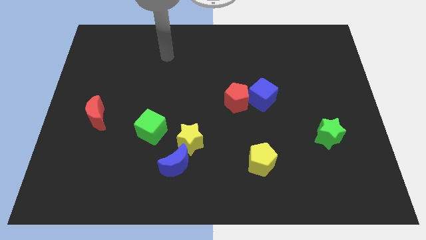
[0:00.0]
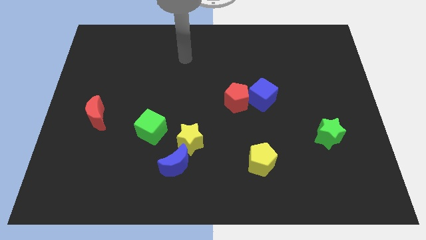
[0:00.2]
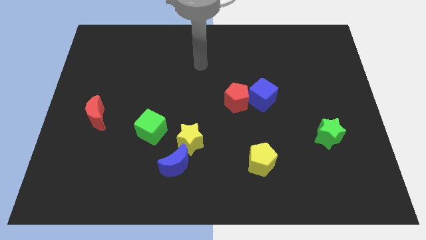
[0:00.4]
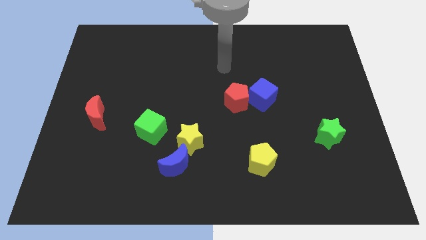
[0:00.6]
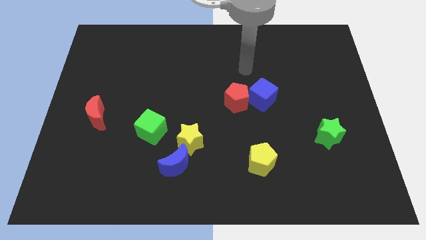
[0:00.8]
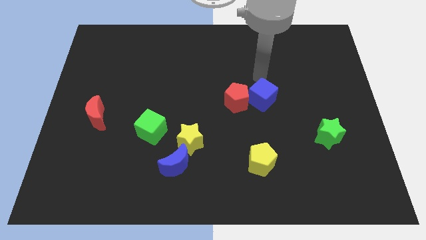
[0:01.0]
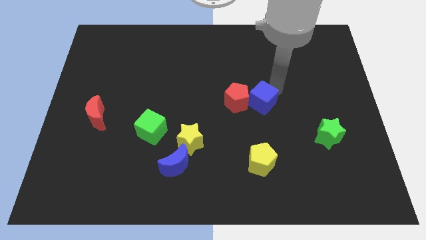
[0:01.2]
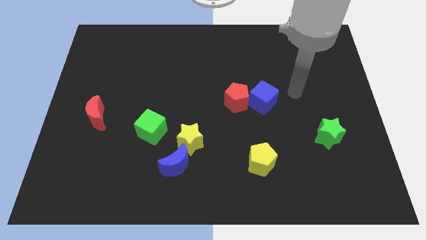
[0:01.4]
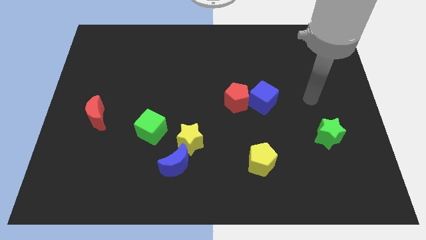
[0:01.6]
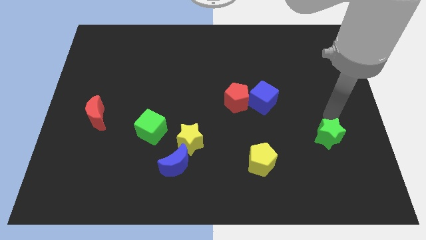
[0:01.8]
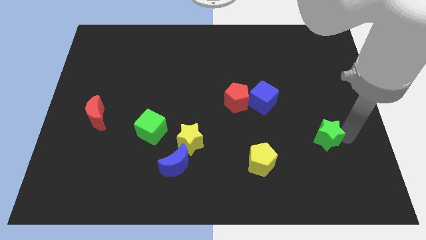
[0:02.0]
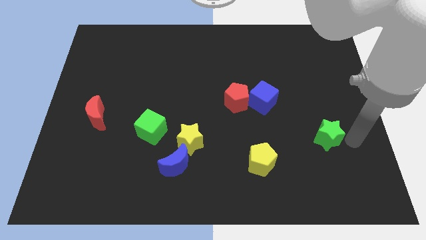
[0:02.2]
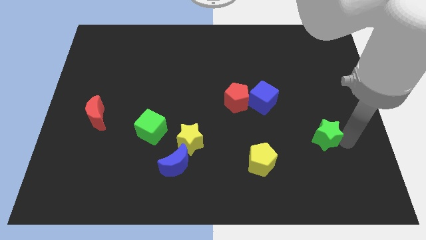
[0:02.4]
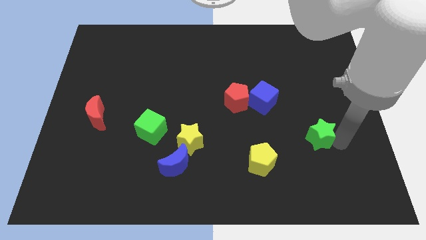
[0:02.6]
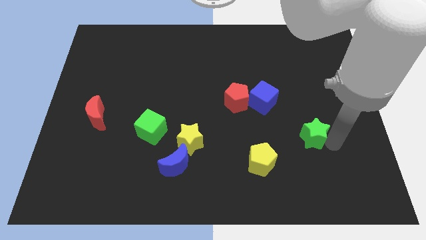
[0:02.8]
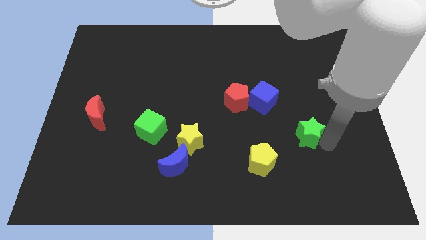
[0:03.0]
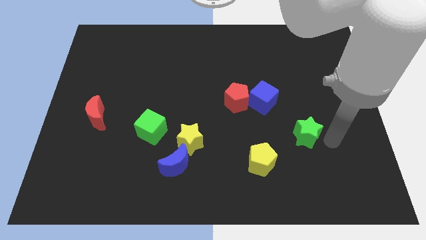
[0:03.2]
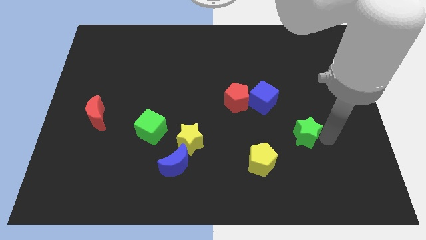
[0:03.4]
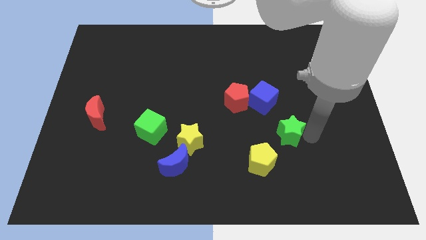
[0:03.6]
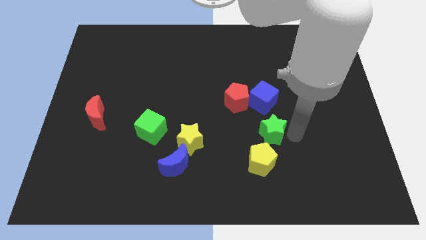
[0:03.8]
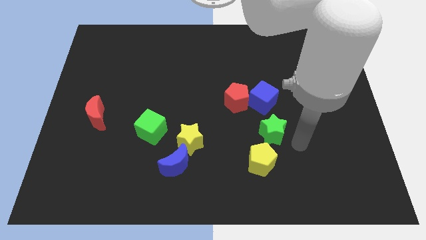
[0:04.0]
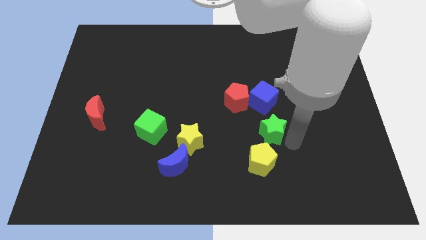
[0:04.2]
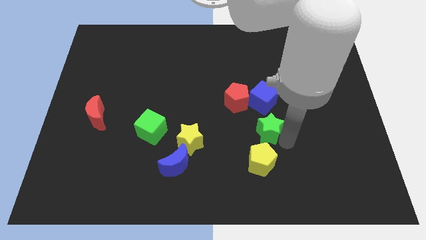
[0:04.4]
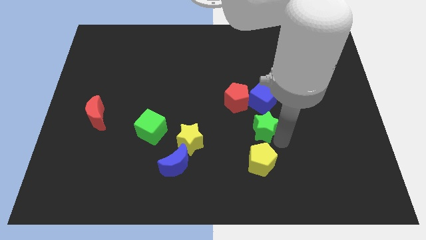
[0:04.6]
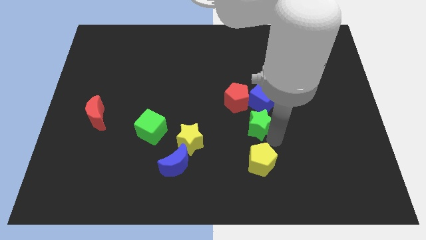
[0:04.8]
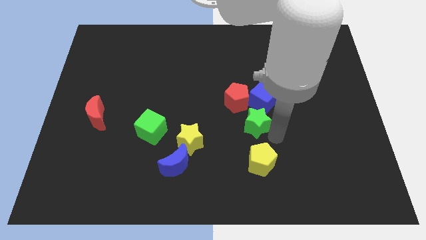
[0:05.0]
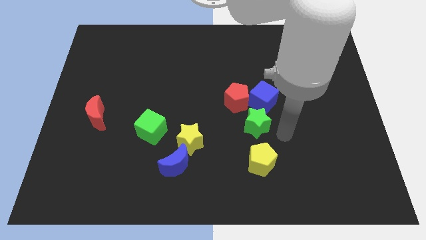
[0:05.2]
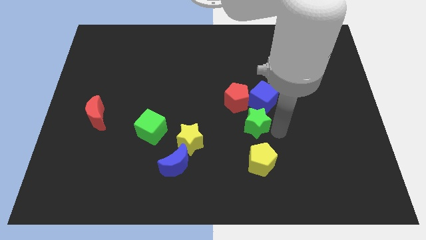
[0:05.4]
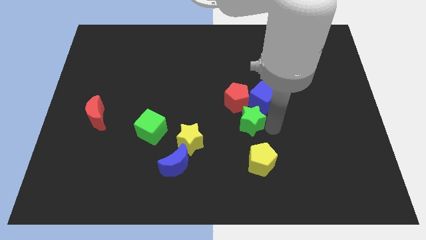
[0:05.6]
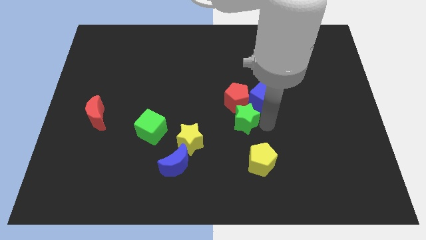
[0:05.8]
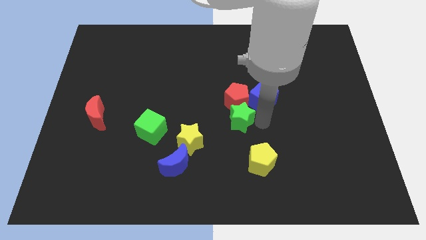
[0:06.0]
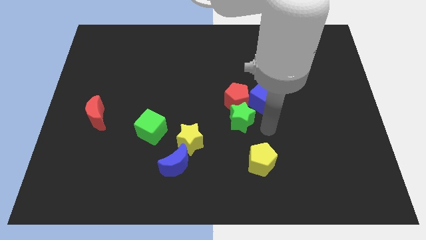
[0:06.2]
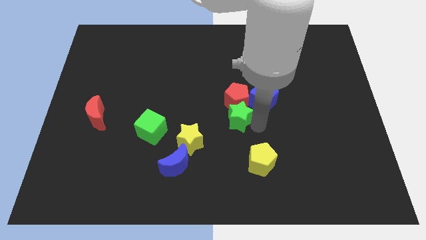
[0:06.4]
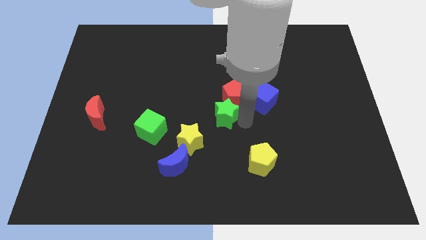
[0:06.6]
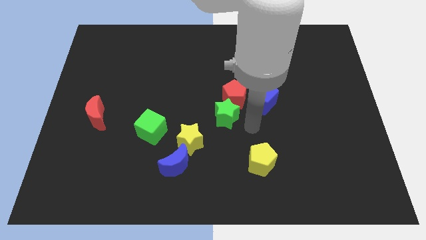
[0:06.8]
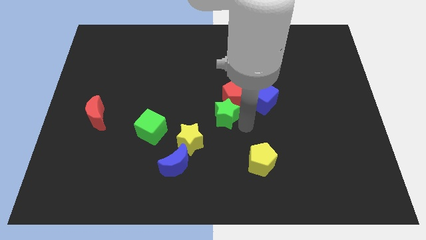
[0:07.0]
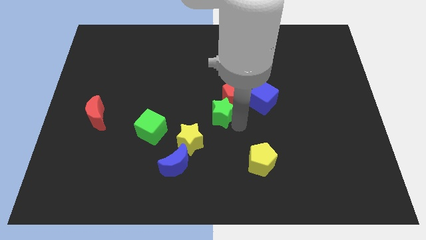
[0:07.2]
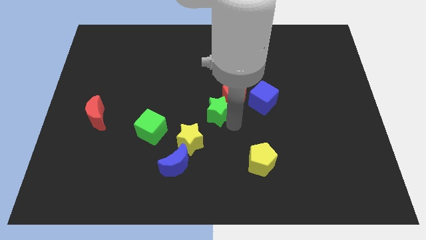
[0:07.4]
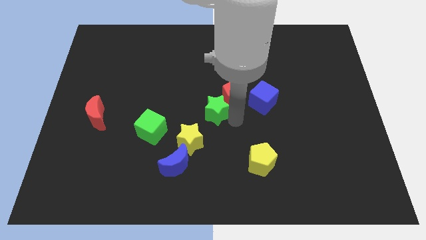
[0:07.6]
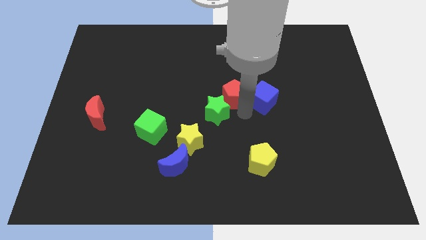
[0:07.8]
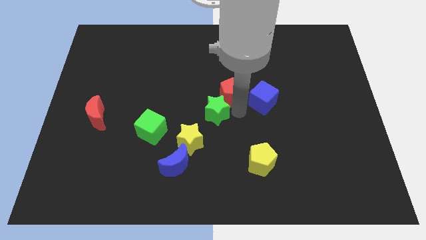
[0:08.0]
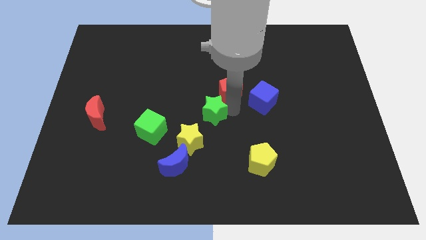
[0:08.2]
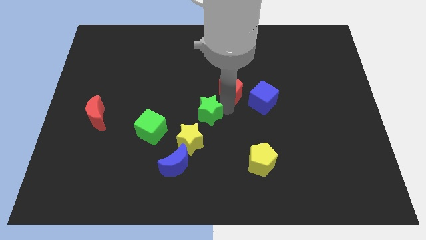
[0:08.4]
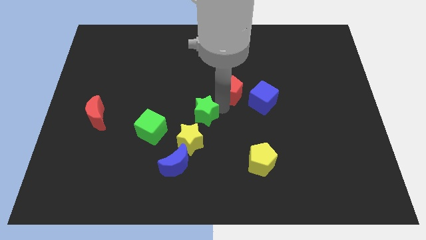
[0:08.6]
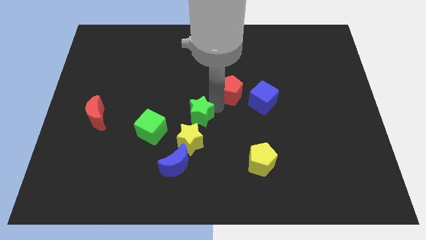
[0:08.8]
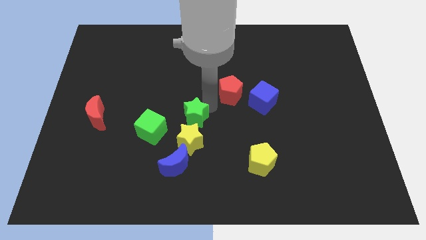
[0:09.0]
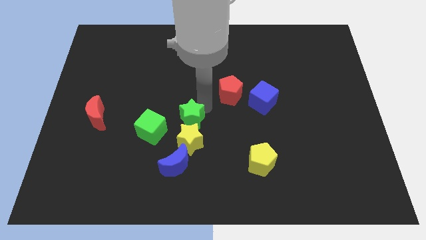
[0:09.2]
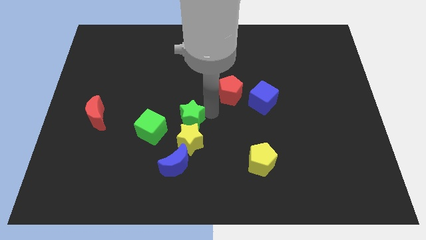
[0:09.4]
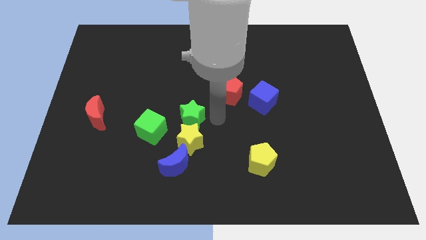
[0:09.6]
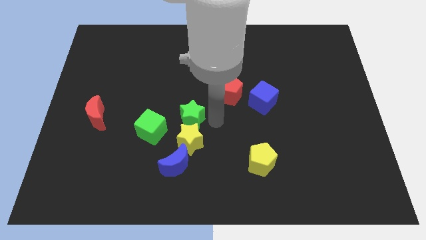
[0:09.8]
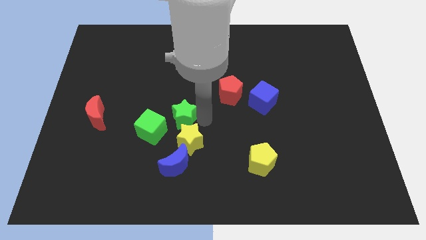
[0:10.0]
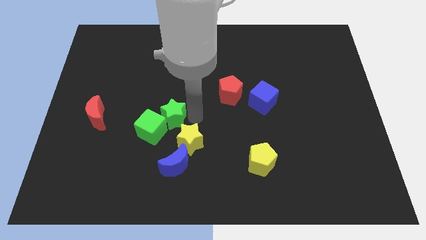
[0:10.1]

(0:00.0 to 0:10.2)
move the green star to the green cube

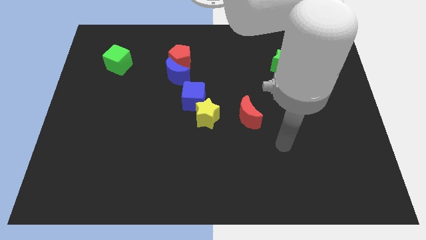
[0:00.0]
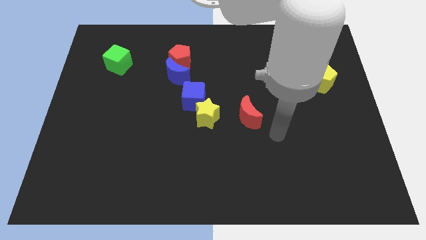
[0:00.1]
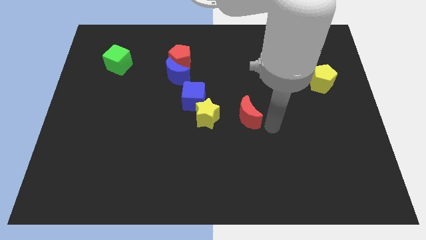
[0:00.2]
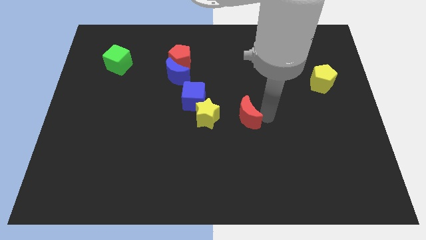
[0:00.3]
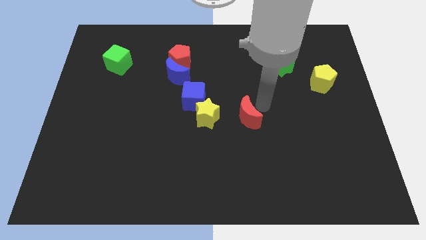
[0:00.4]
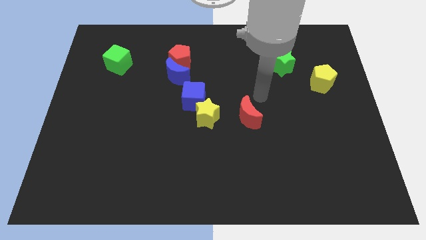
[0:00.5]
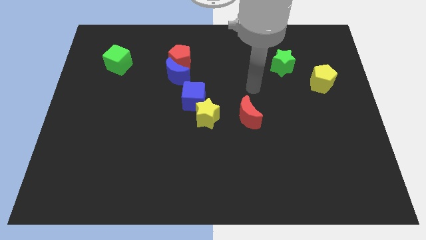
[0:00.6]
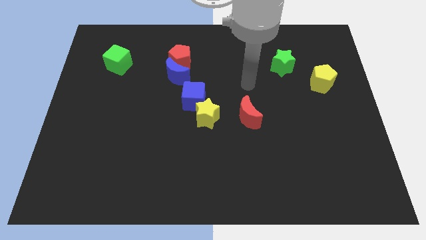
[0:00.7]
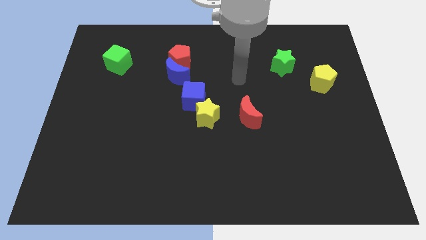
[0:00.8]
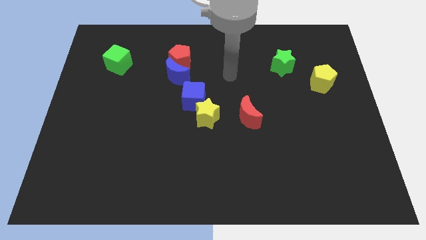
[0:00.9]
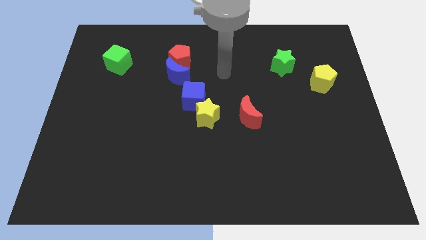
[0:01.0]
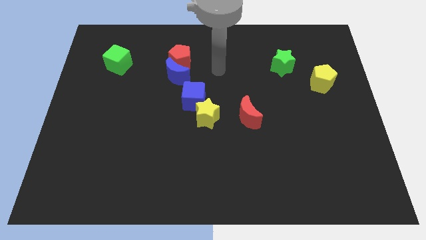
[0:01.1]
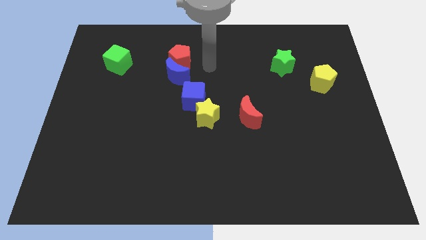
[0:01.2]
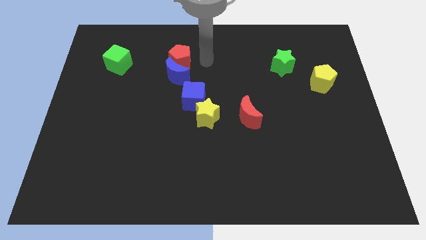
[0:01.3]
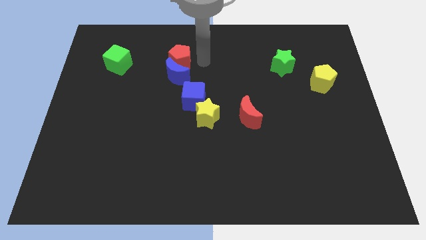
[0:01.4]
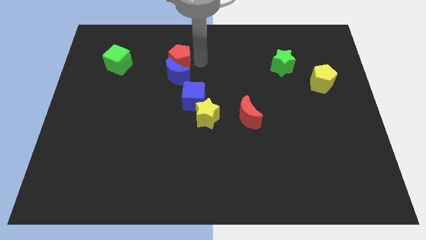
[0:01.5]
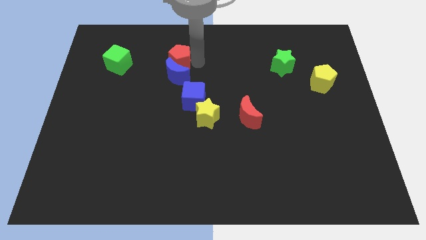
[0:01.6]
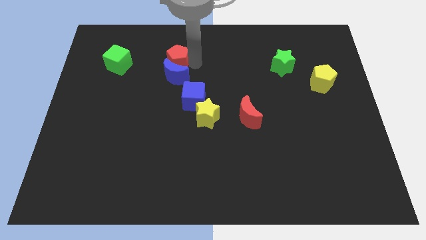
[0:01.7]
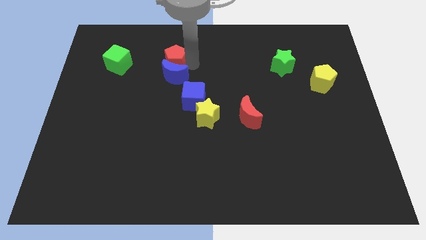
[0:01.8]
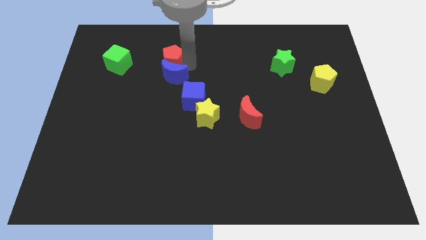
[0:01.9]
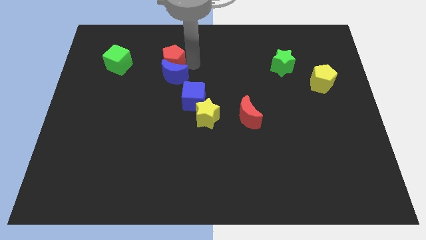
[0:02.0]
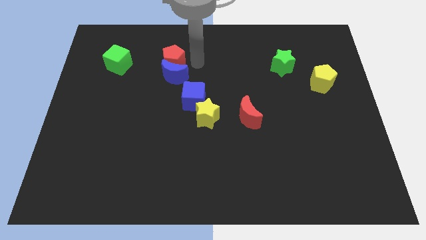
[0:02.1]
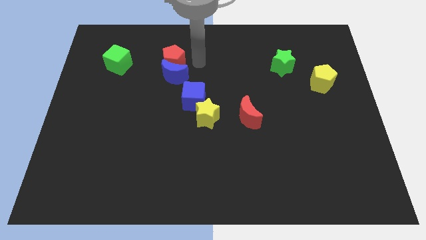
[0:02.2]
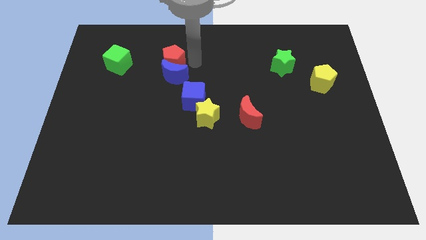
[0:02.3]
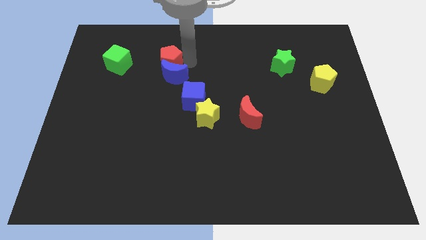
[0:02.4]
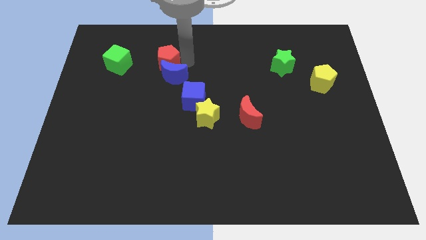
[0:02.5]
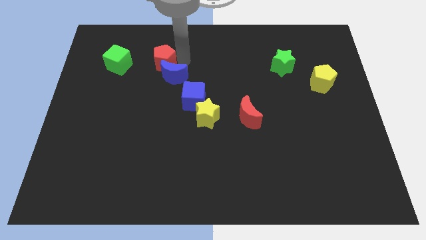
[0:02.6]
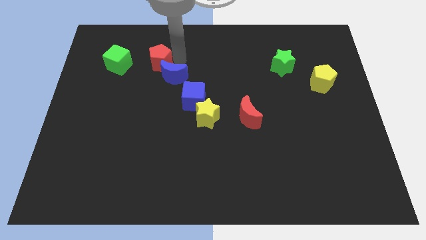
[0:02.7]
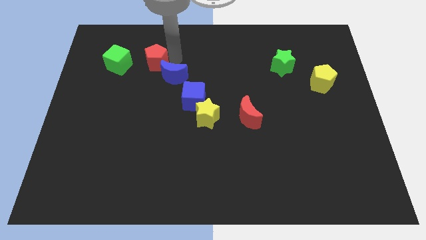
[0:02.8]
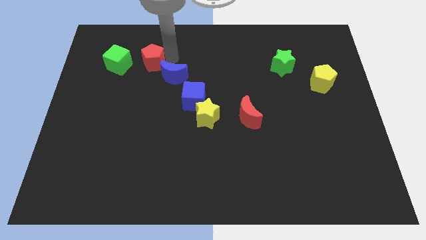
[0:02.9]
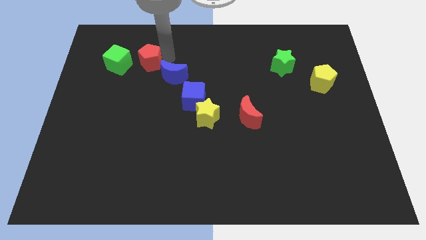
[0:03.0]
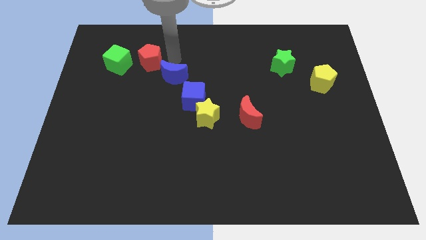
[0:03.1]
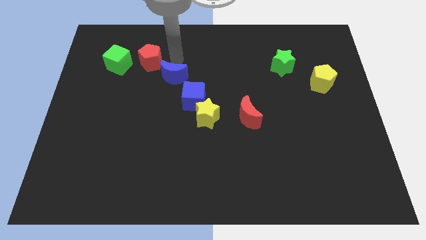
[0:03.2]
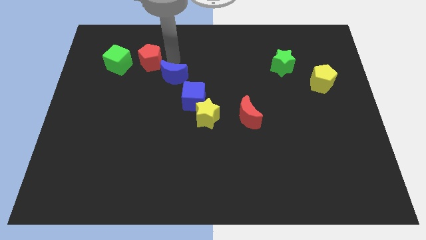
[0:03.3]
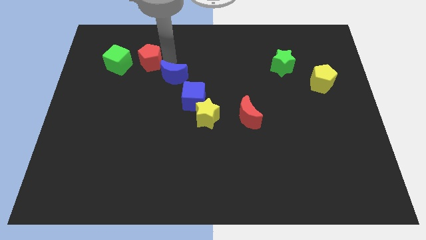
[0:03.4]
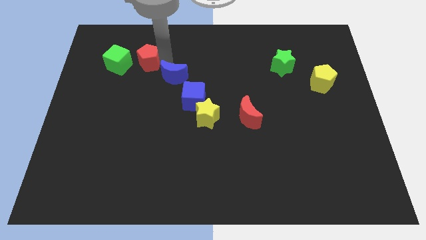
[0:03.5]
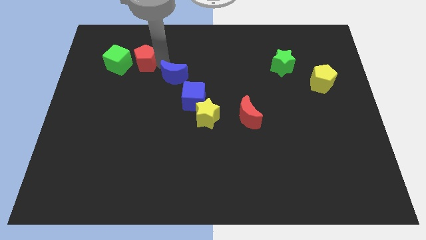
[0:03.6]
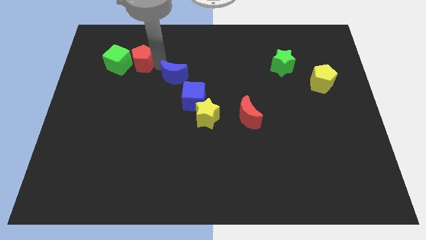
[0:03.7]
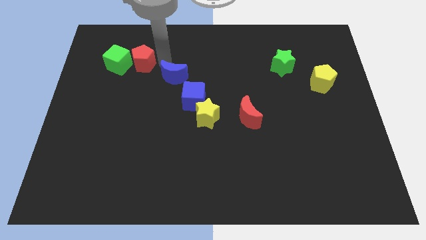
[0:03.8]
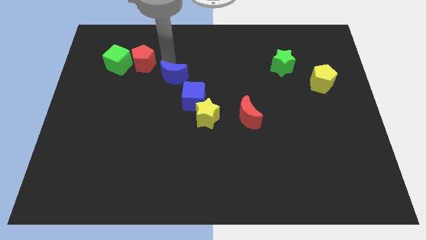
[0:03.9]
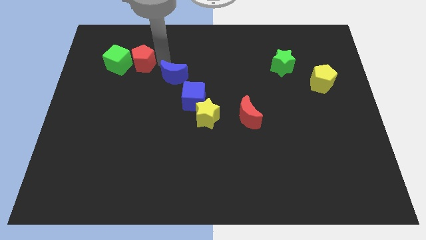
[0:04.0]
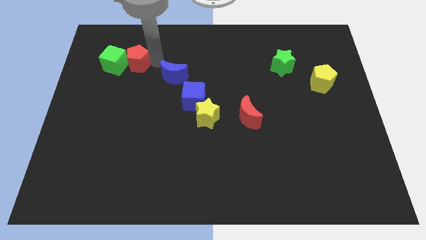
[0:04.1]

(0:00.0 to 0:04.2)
slide the red pentagon towards the green cube
